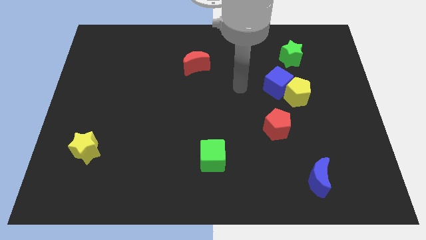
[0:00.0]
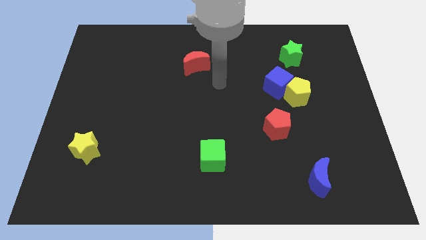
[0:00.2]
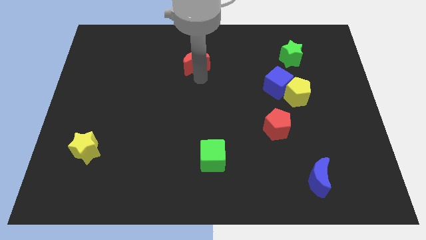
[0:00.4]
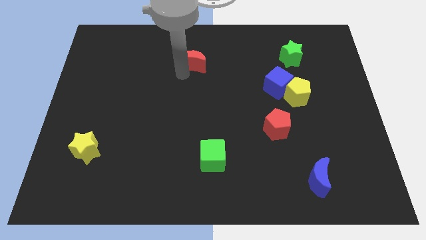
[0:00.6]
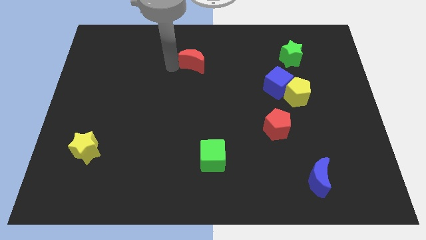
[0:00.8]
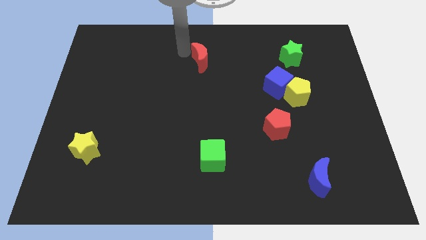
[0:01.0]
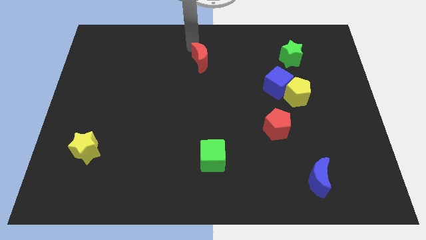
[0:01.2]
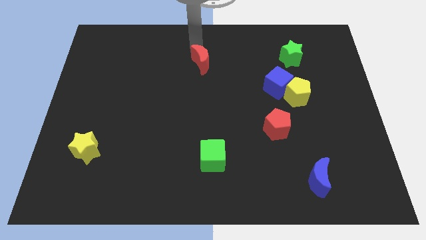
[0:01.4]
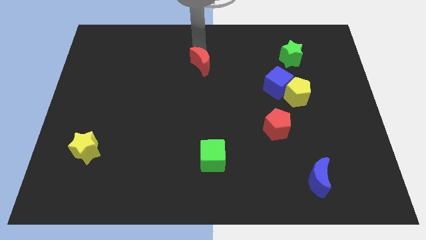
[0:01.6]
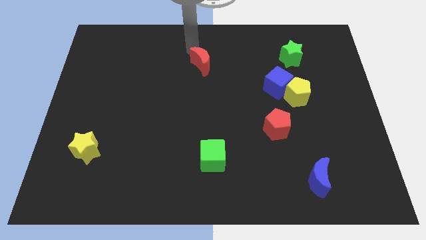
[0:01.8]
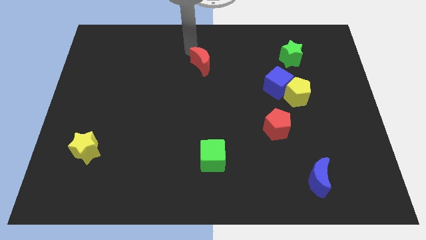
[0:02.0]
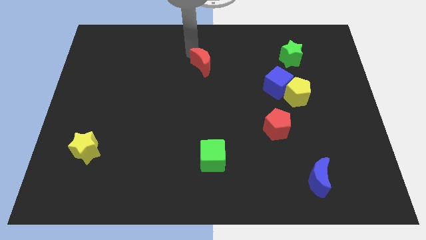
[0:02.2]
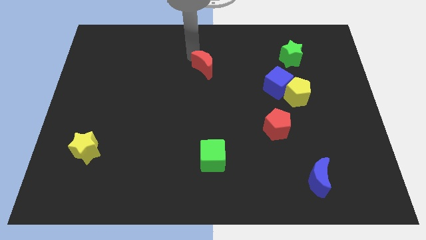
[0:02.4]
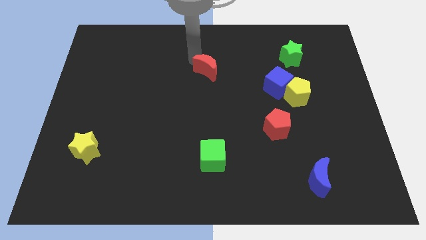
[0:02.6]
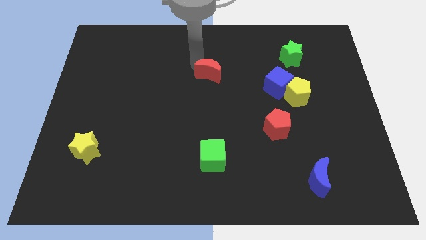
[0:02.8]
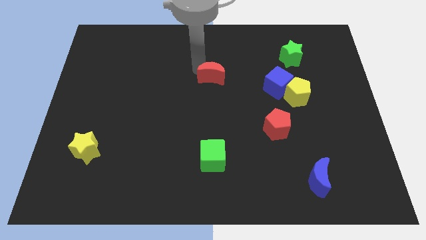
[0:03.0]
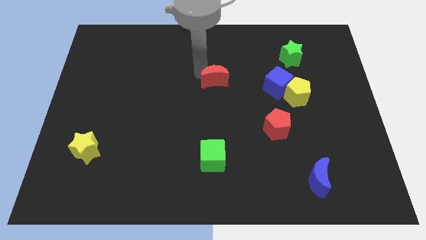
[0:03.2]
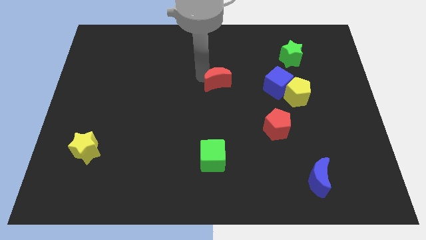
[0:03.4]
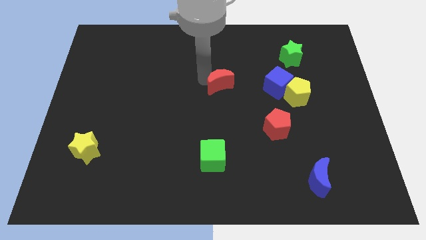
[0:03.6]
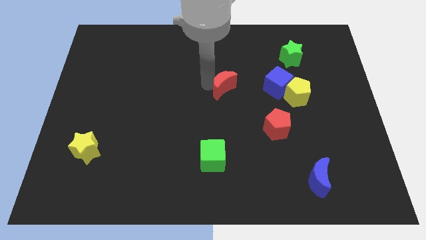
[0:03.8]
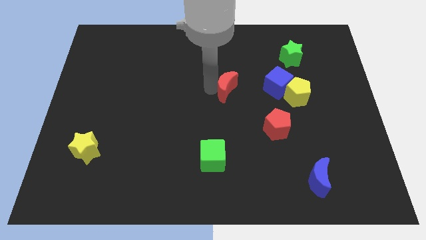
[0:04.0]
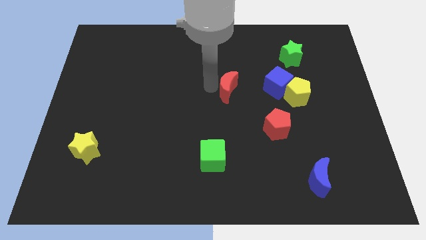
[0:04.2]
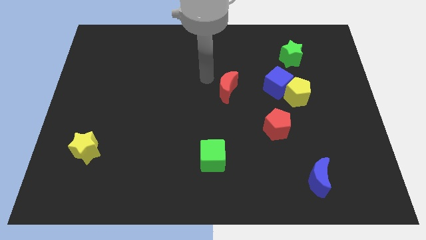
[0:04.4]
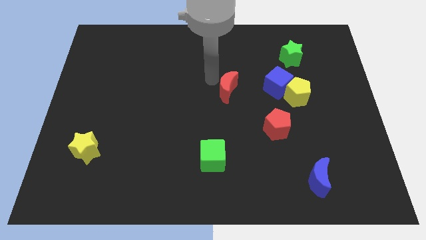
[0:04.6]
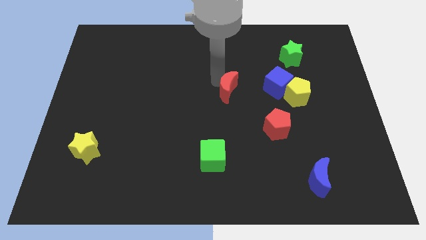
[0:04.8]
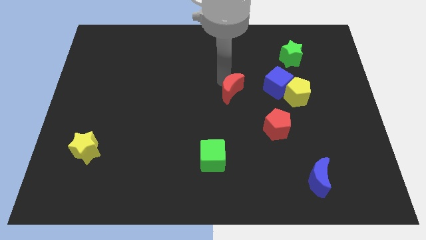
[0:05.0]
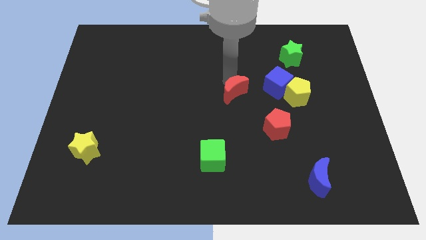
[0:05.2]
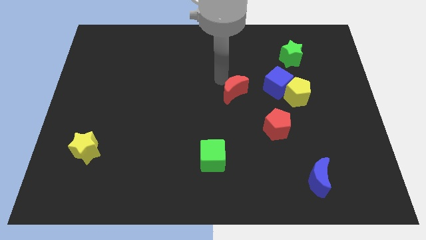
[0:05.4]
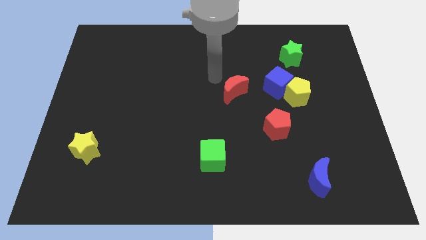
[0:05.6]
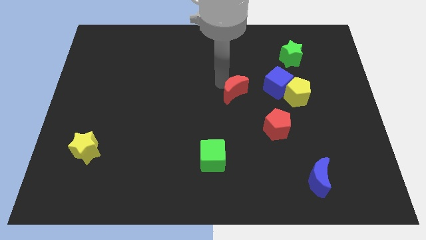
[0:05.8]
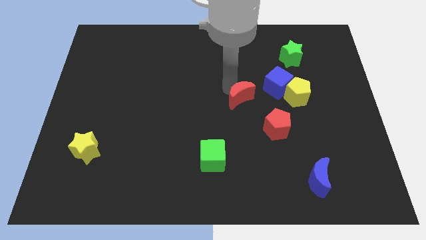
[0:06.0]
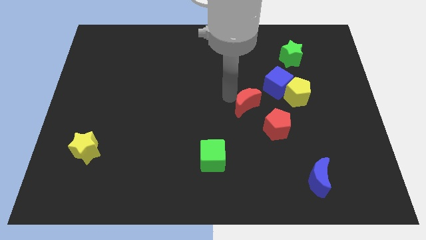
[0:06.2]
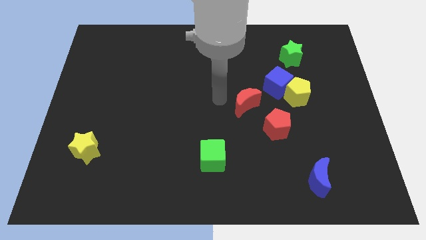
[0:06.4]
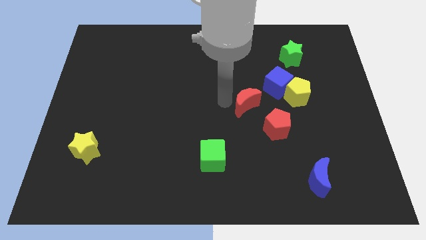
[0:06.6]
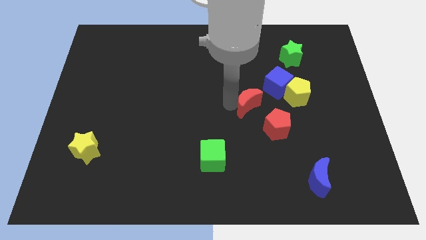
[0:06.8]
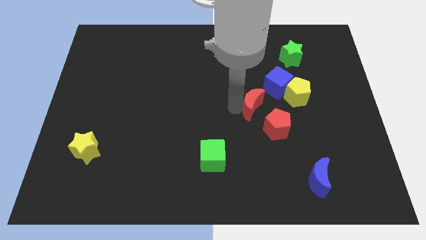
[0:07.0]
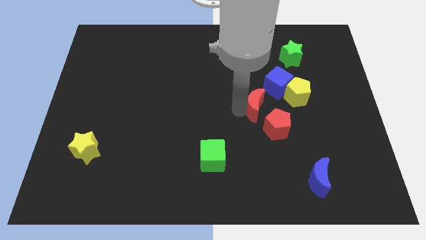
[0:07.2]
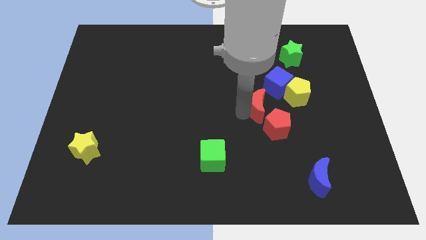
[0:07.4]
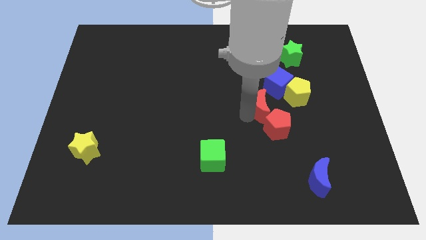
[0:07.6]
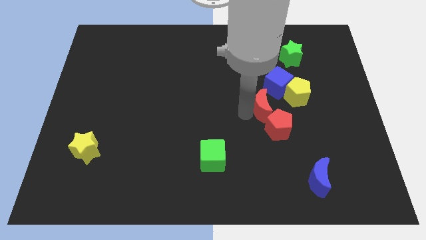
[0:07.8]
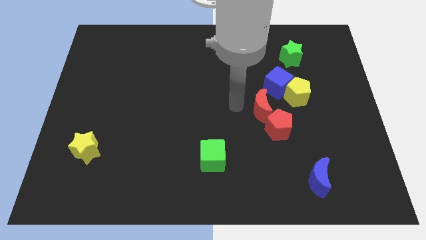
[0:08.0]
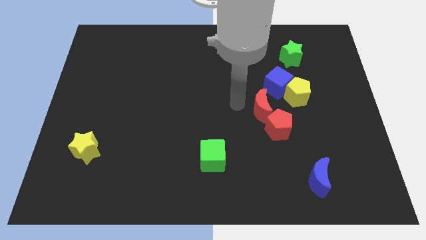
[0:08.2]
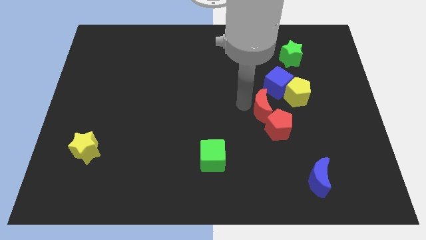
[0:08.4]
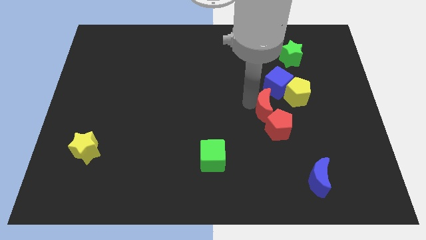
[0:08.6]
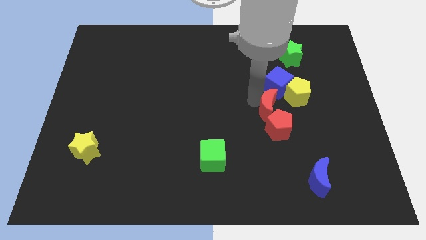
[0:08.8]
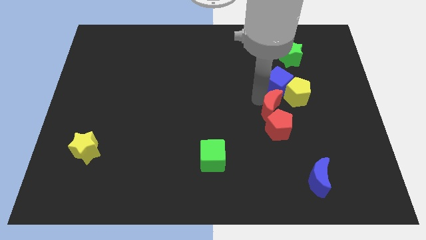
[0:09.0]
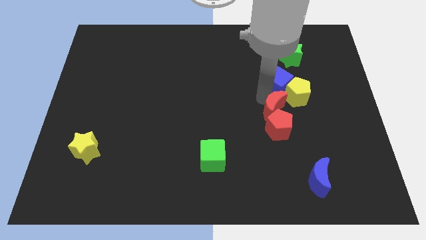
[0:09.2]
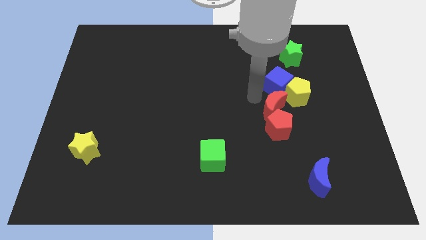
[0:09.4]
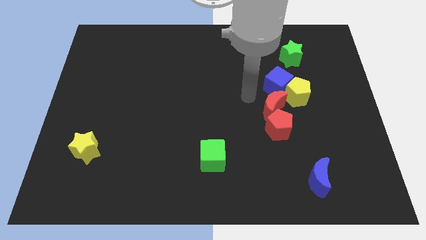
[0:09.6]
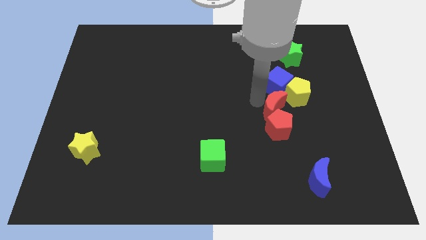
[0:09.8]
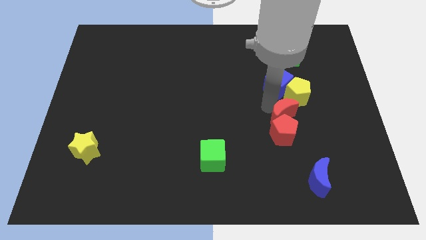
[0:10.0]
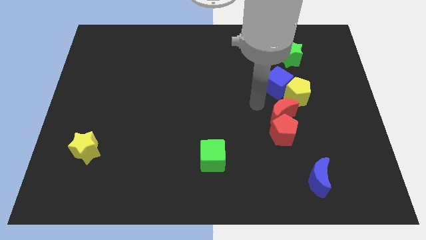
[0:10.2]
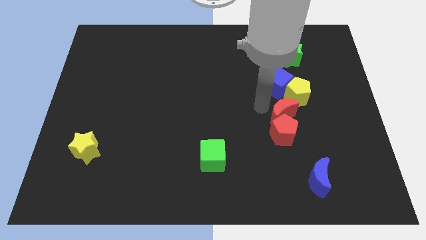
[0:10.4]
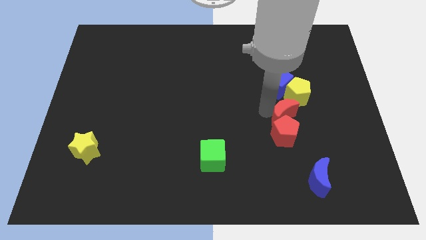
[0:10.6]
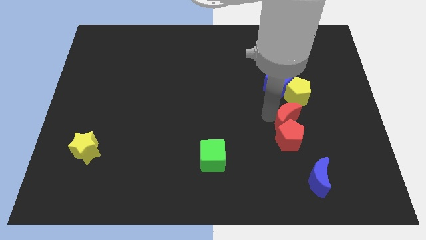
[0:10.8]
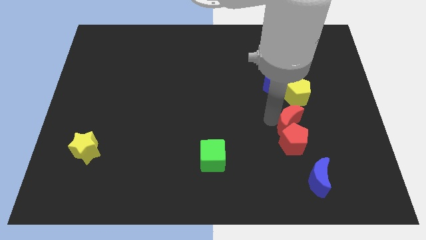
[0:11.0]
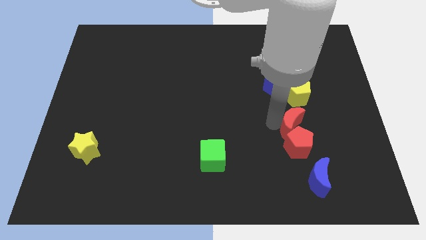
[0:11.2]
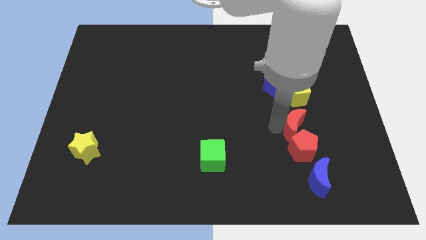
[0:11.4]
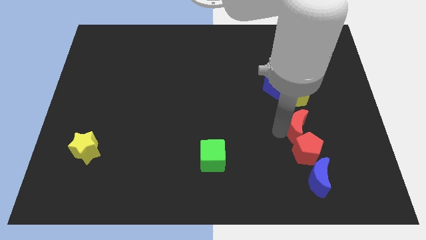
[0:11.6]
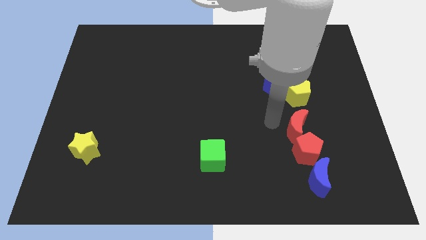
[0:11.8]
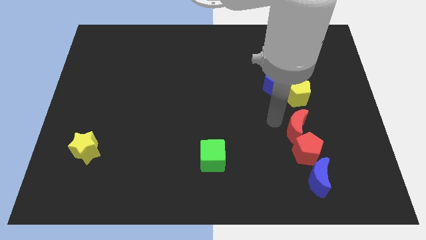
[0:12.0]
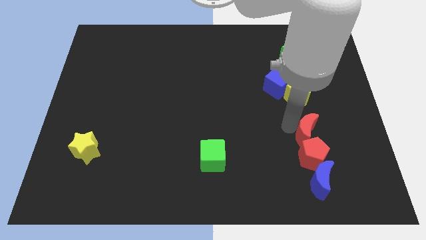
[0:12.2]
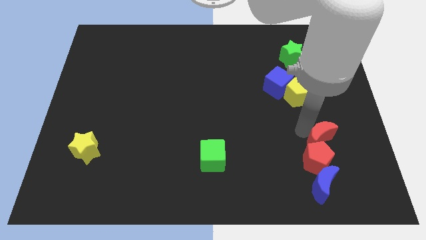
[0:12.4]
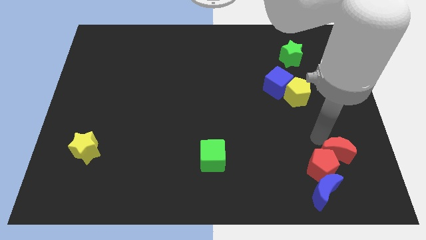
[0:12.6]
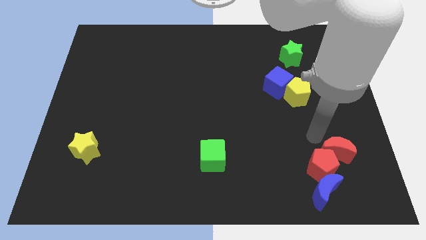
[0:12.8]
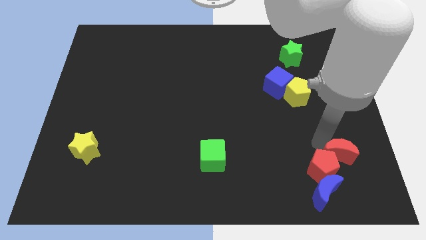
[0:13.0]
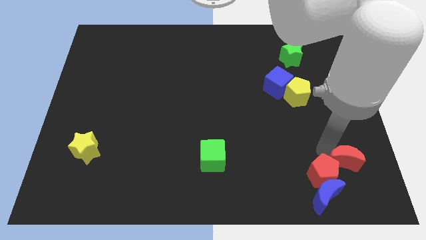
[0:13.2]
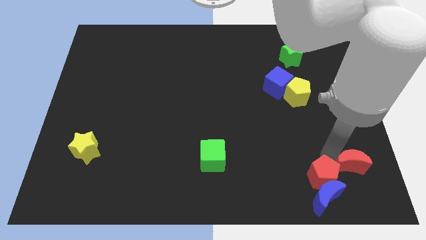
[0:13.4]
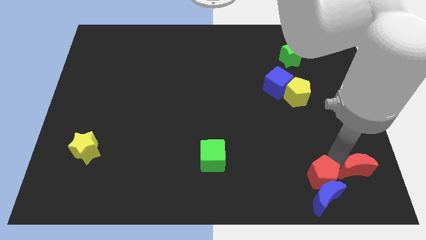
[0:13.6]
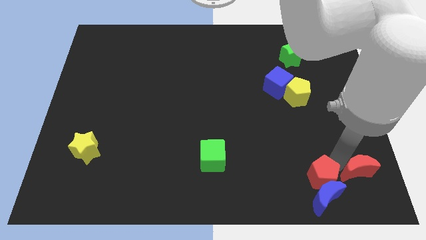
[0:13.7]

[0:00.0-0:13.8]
slide the red moon to the bottom right of the board
